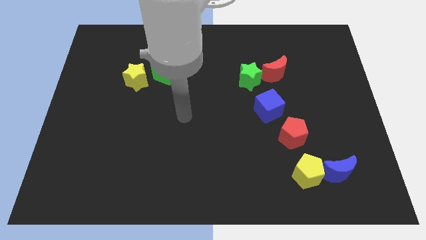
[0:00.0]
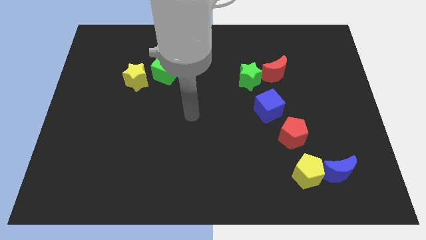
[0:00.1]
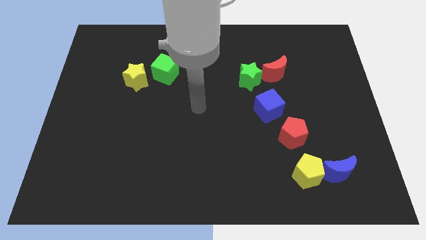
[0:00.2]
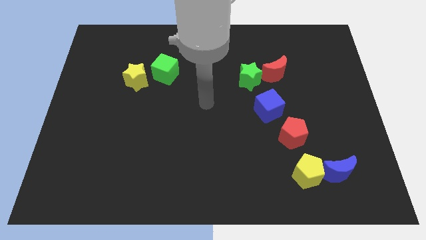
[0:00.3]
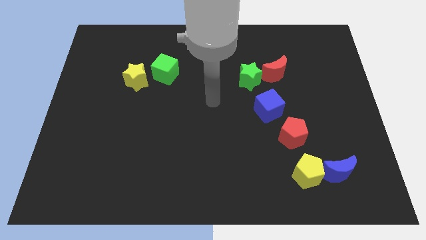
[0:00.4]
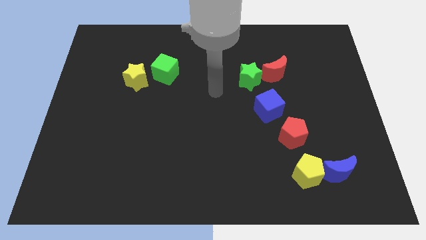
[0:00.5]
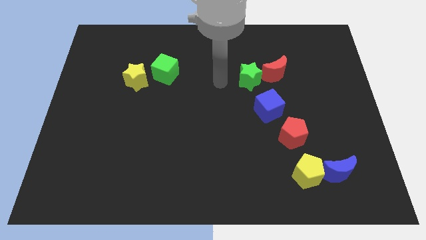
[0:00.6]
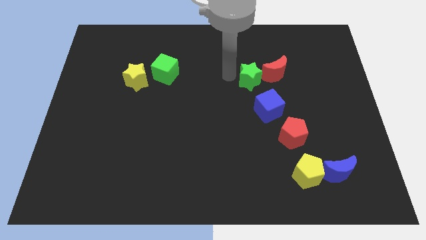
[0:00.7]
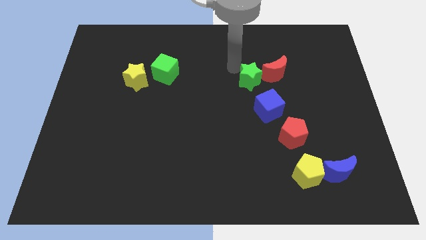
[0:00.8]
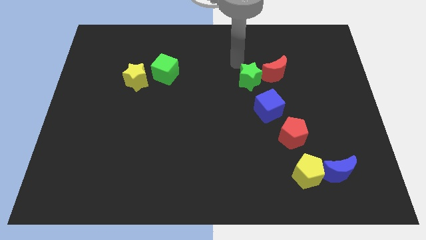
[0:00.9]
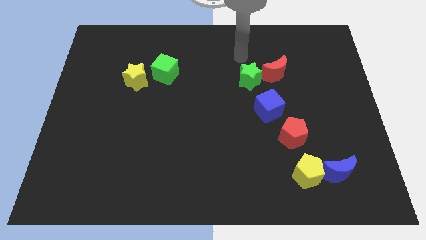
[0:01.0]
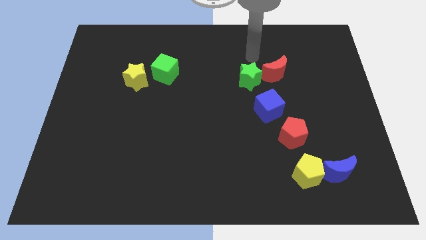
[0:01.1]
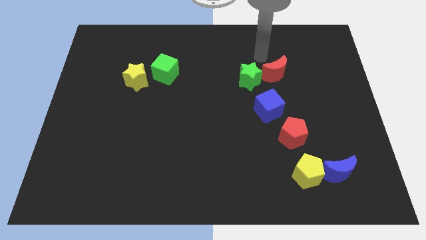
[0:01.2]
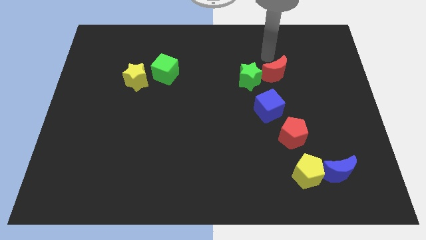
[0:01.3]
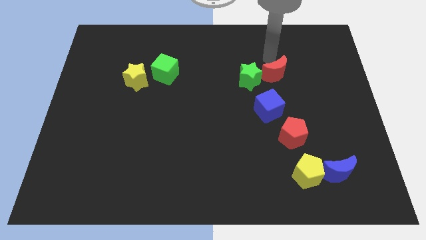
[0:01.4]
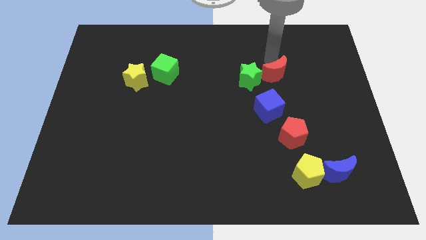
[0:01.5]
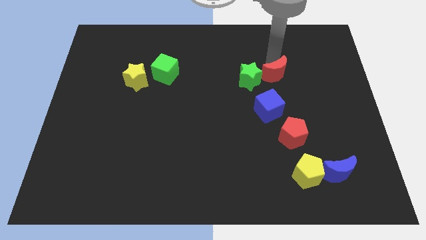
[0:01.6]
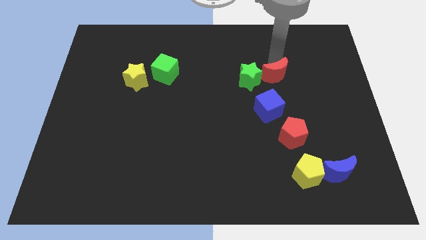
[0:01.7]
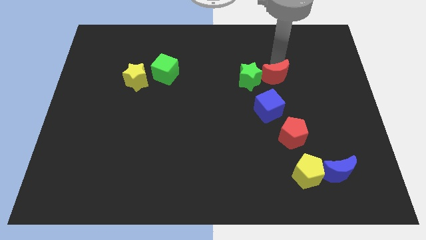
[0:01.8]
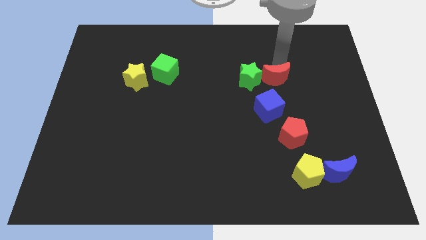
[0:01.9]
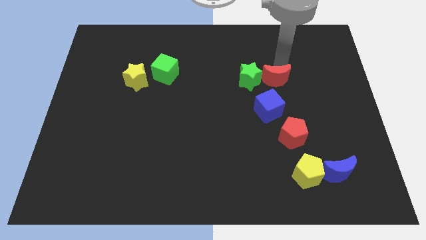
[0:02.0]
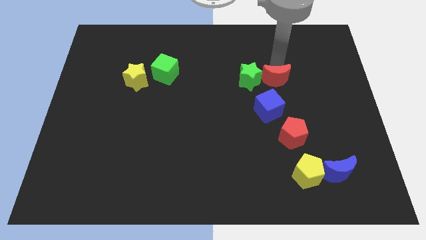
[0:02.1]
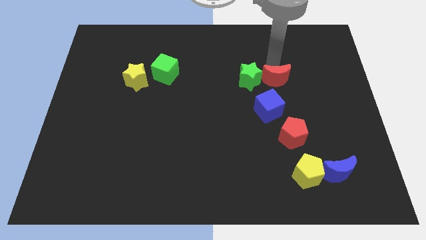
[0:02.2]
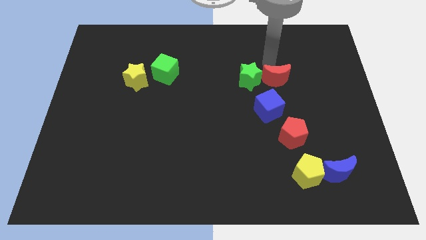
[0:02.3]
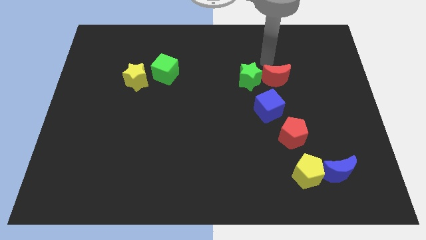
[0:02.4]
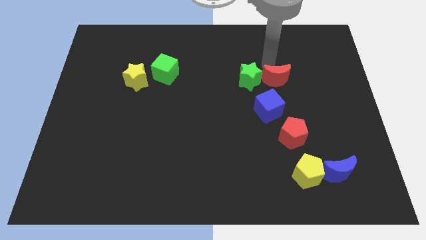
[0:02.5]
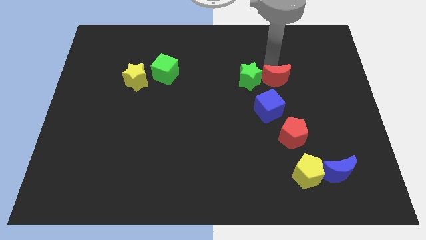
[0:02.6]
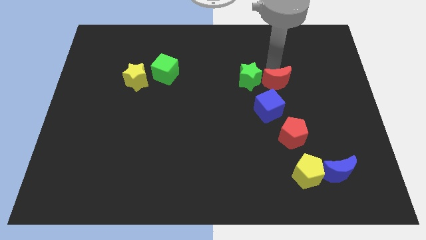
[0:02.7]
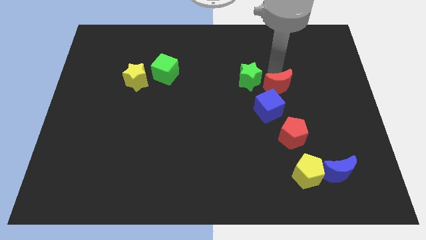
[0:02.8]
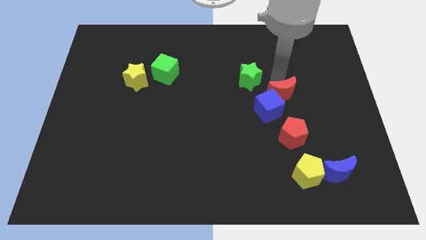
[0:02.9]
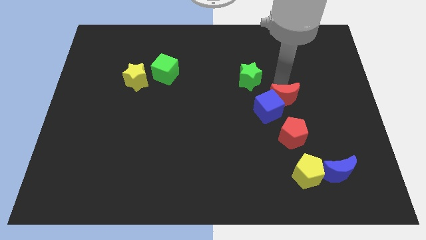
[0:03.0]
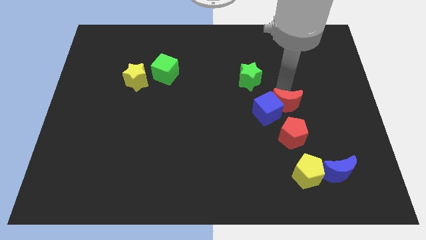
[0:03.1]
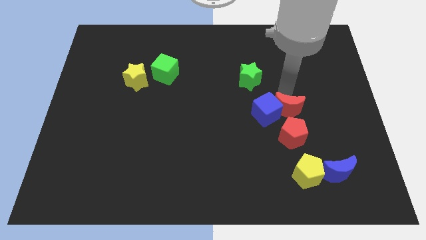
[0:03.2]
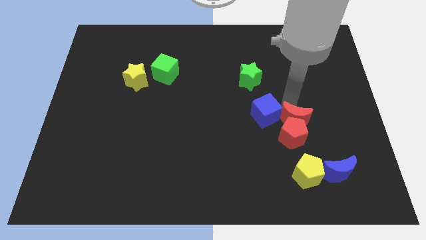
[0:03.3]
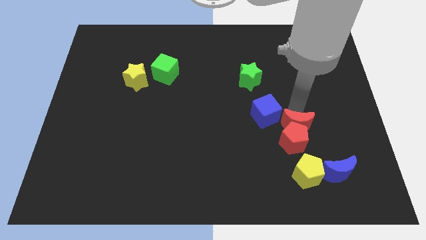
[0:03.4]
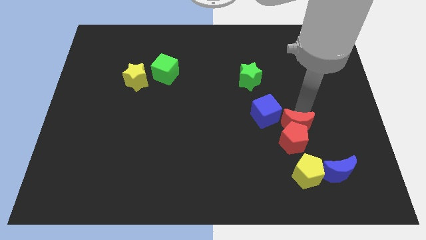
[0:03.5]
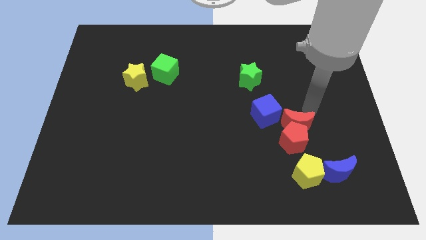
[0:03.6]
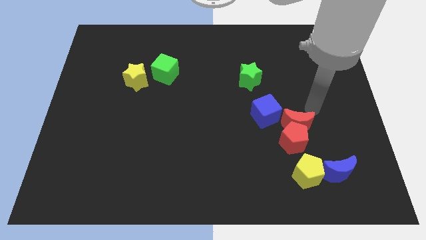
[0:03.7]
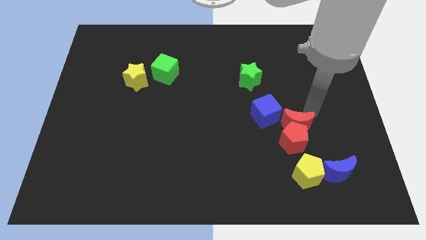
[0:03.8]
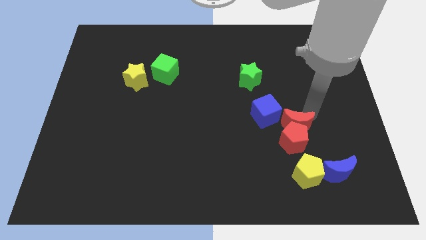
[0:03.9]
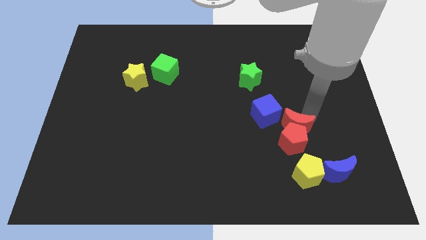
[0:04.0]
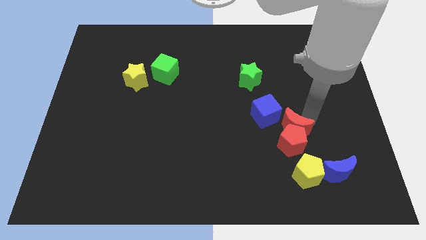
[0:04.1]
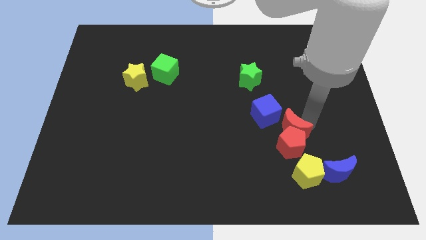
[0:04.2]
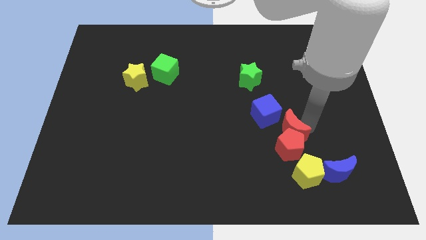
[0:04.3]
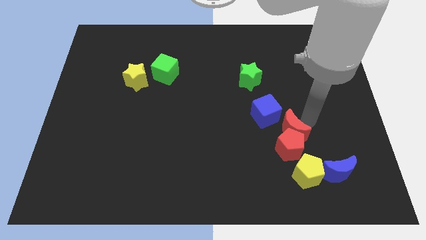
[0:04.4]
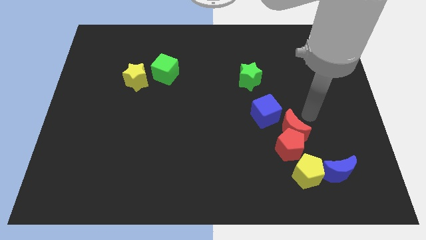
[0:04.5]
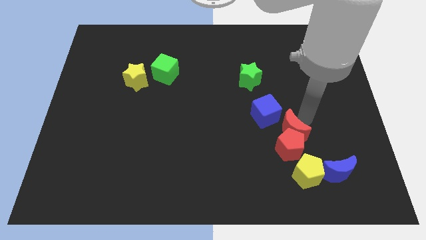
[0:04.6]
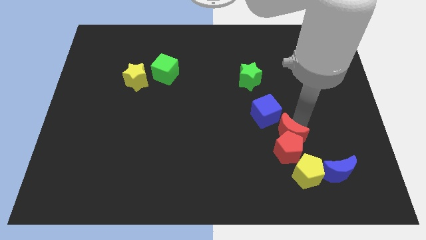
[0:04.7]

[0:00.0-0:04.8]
move the red moon below the blue cube

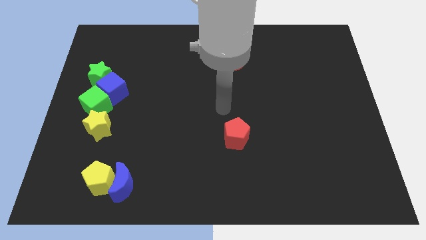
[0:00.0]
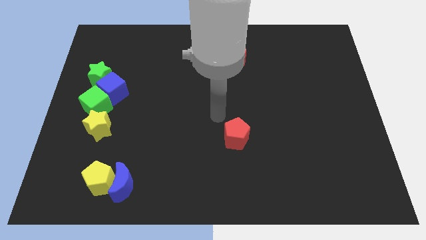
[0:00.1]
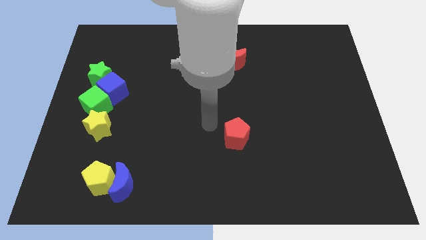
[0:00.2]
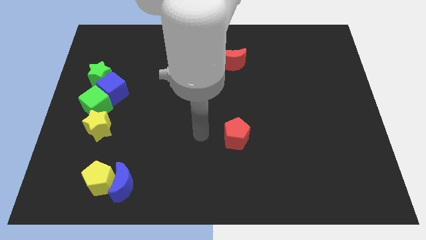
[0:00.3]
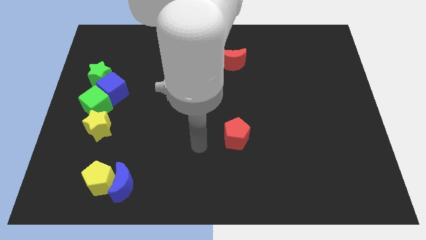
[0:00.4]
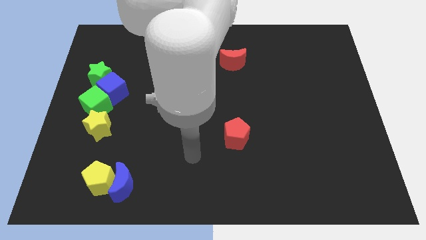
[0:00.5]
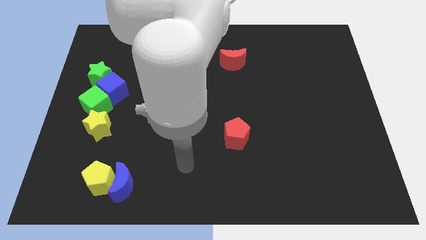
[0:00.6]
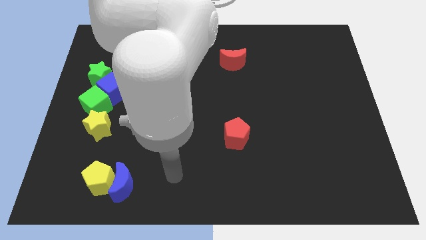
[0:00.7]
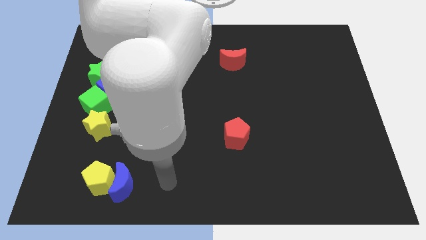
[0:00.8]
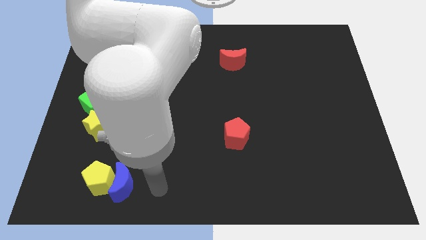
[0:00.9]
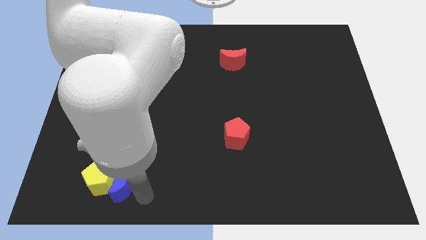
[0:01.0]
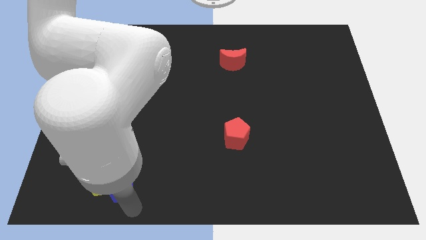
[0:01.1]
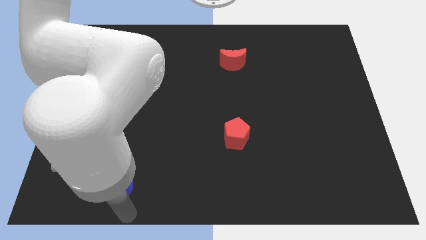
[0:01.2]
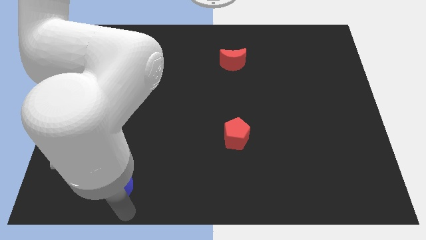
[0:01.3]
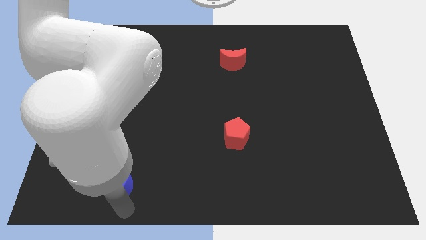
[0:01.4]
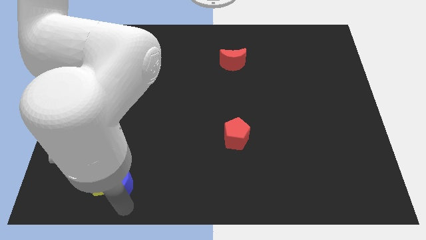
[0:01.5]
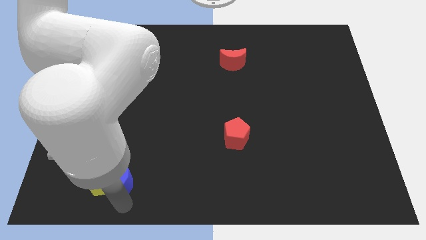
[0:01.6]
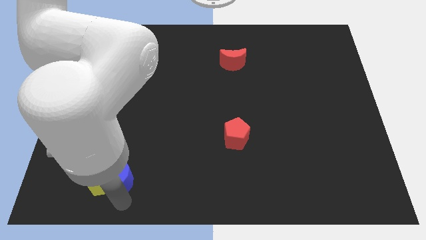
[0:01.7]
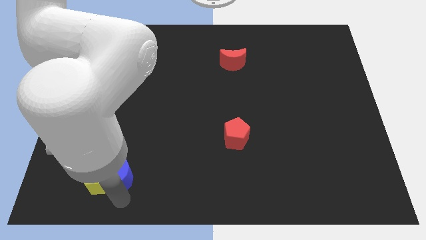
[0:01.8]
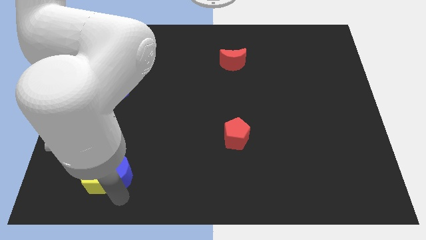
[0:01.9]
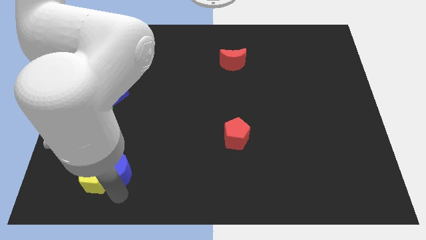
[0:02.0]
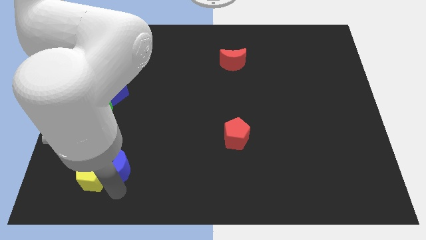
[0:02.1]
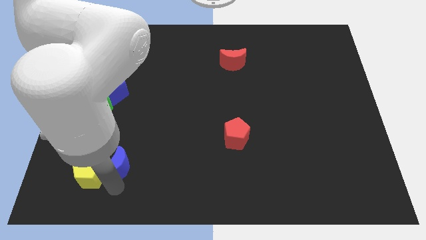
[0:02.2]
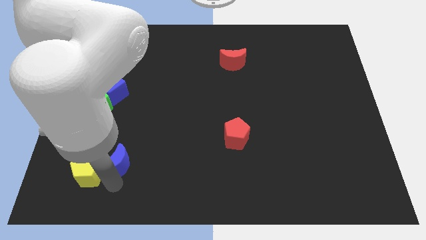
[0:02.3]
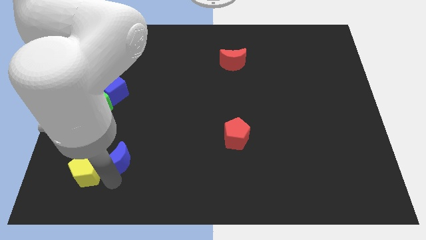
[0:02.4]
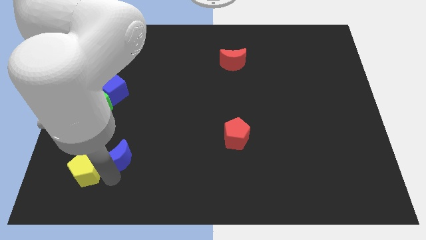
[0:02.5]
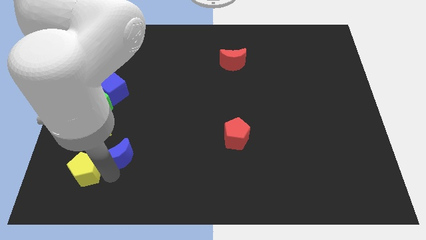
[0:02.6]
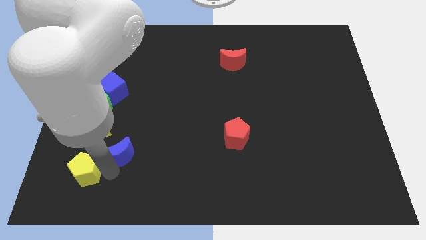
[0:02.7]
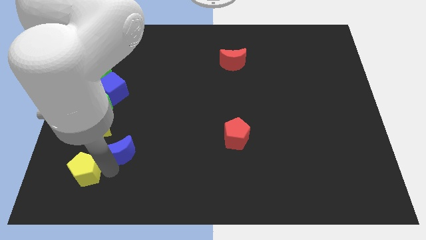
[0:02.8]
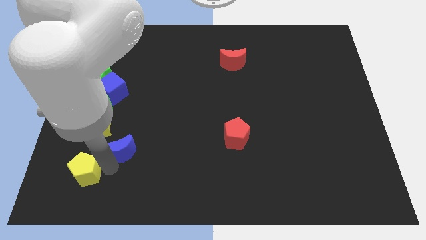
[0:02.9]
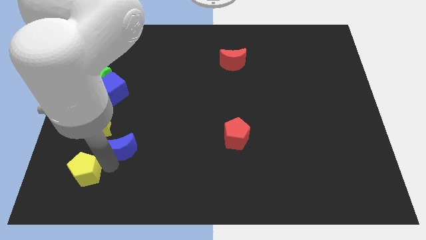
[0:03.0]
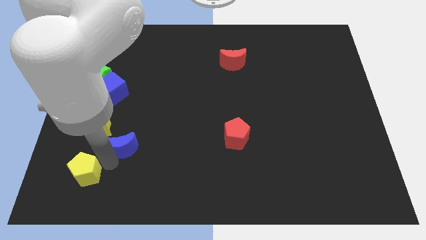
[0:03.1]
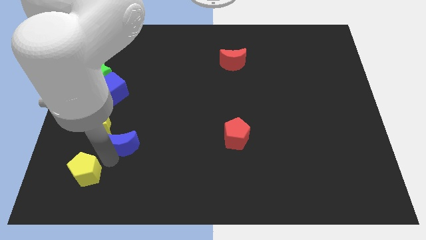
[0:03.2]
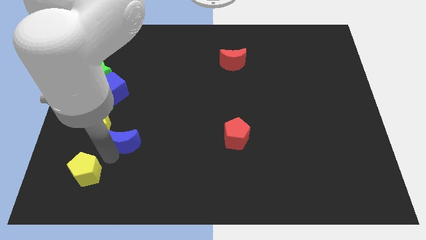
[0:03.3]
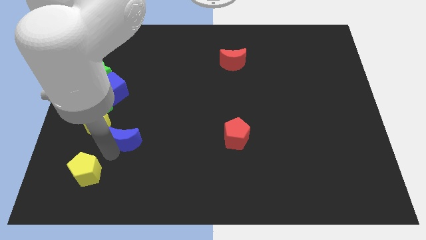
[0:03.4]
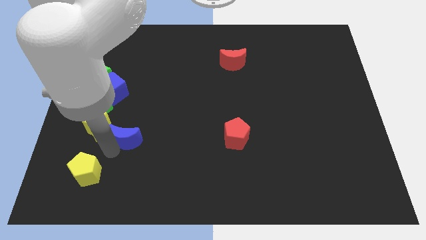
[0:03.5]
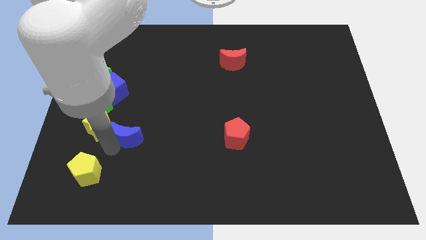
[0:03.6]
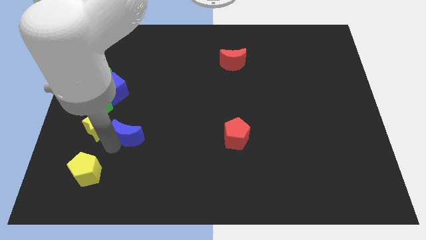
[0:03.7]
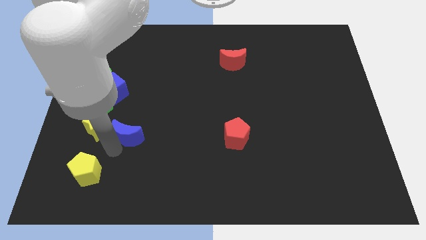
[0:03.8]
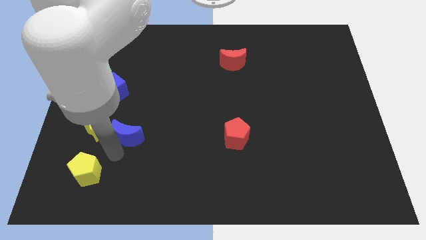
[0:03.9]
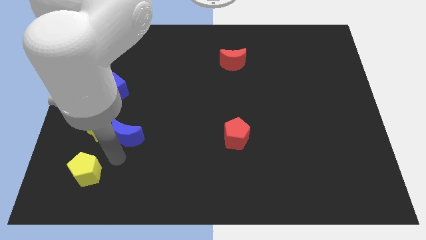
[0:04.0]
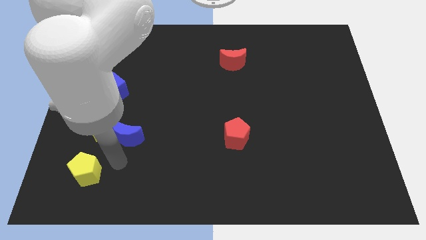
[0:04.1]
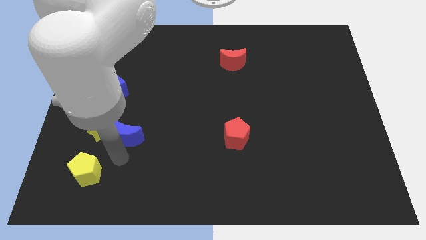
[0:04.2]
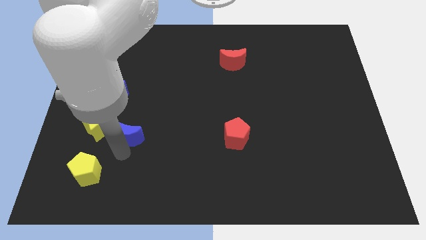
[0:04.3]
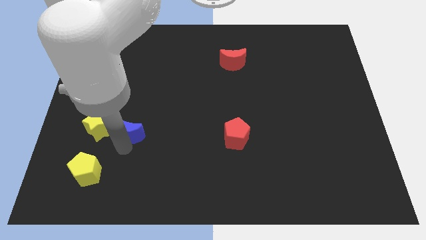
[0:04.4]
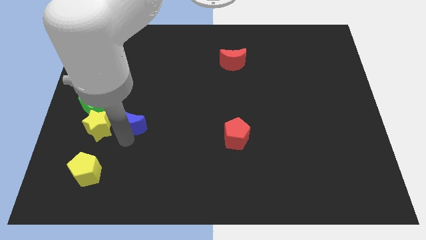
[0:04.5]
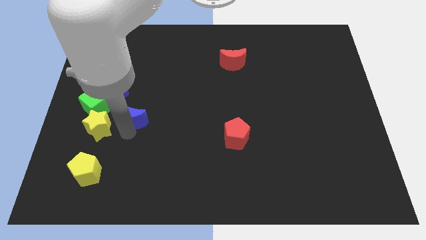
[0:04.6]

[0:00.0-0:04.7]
push the blue moon to the right of the green cube
